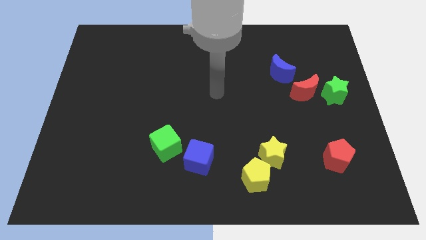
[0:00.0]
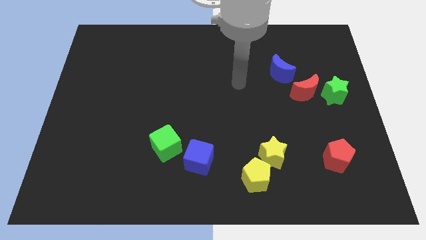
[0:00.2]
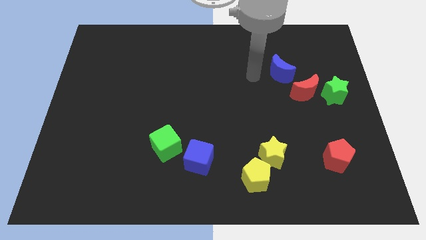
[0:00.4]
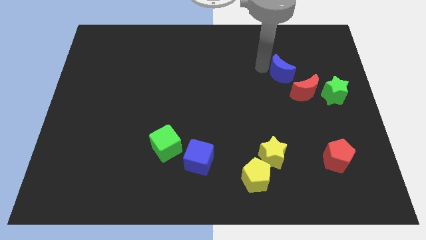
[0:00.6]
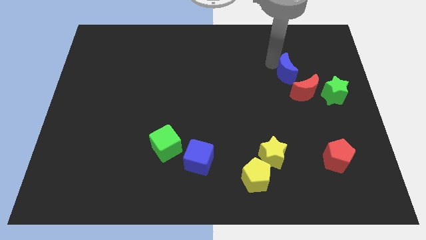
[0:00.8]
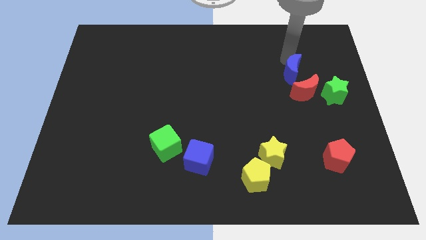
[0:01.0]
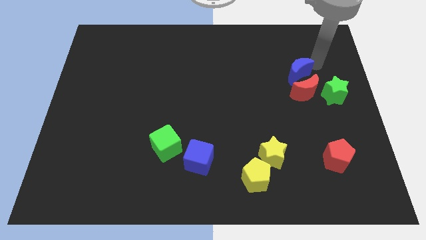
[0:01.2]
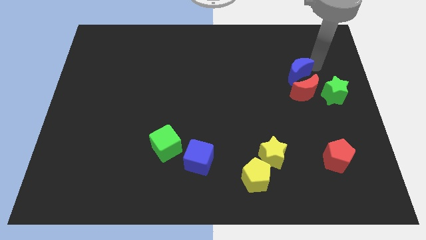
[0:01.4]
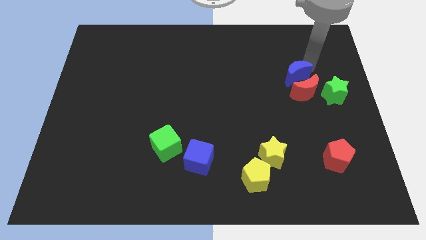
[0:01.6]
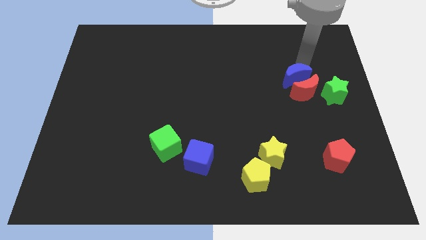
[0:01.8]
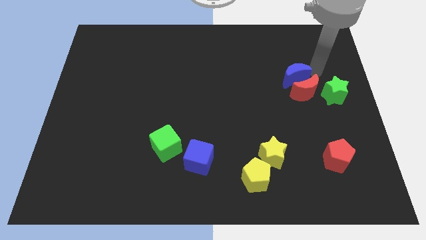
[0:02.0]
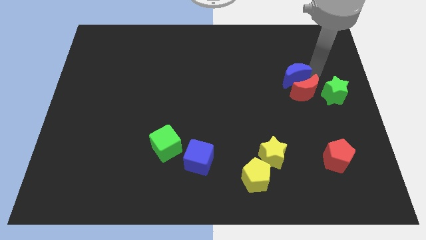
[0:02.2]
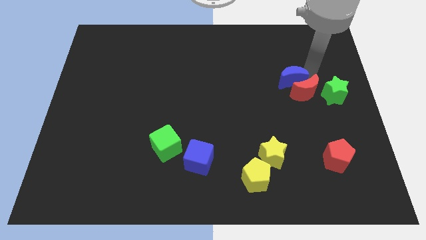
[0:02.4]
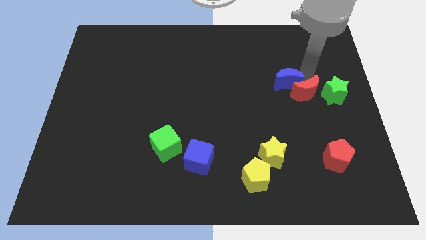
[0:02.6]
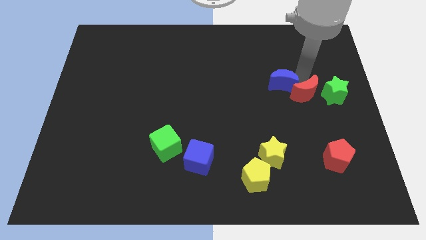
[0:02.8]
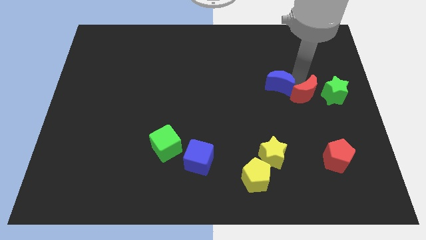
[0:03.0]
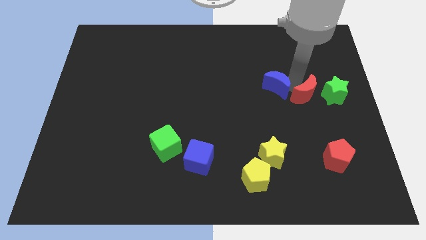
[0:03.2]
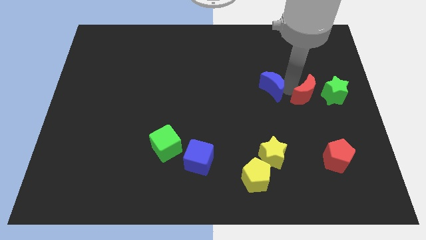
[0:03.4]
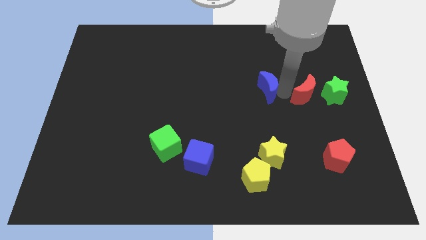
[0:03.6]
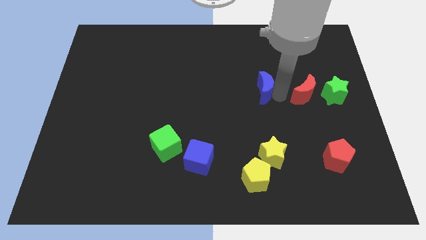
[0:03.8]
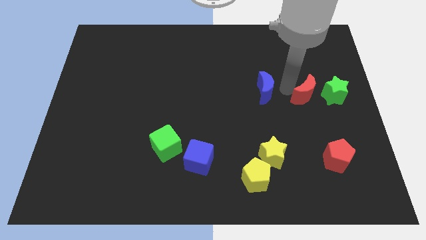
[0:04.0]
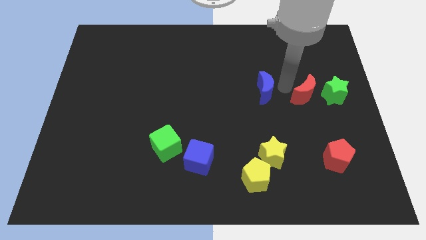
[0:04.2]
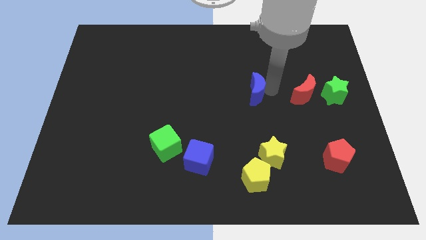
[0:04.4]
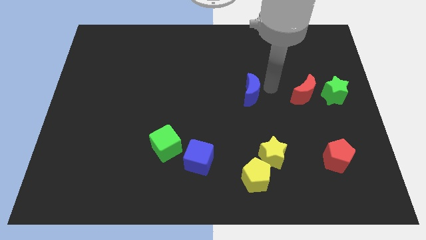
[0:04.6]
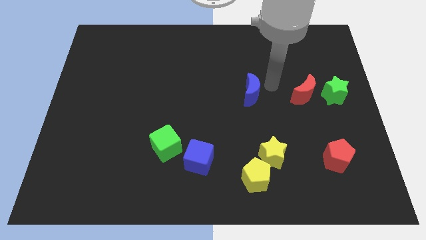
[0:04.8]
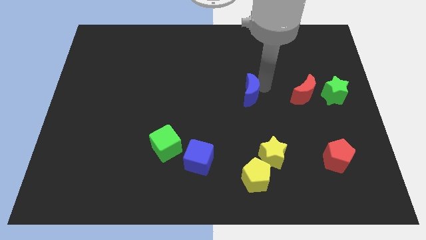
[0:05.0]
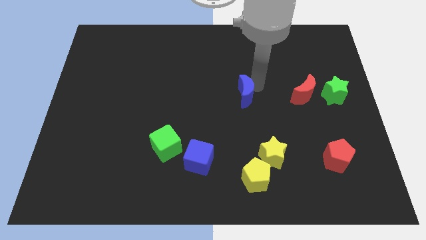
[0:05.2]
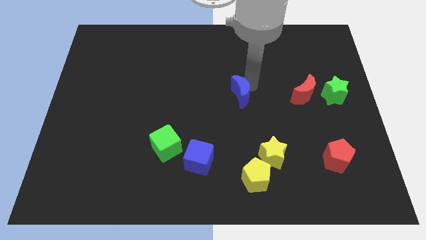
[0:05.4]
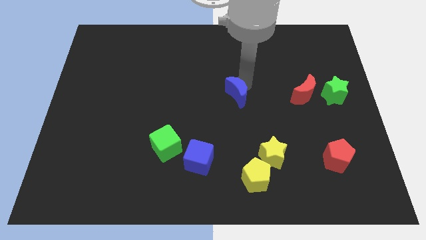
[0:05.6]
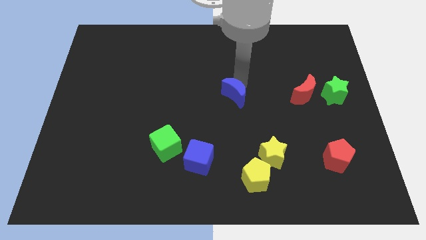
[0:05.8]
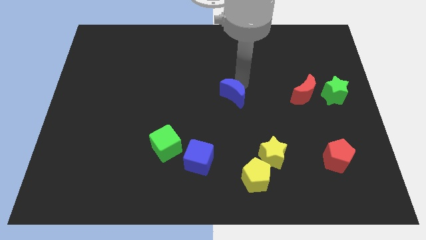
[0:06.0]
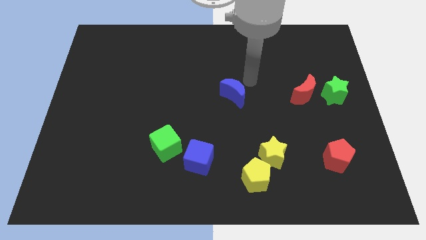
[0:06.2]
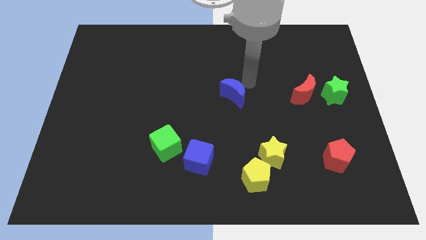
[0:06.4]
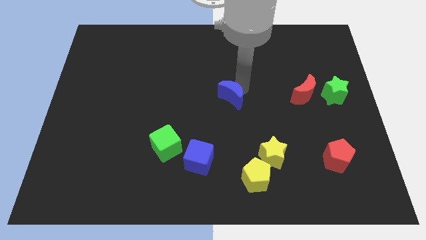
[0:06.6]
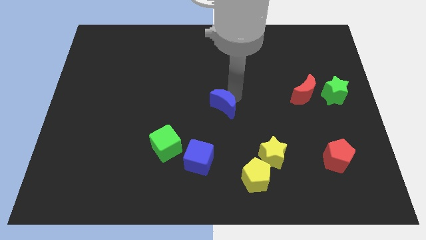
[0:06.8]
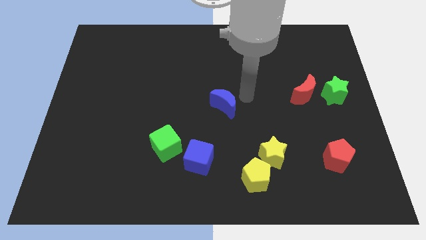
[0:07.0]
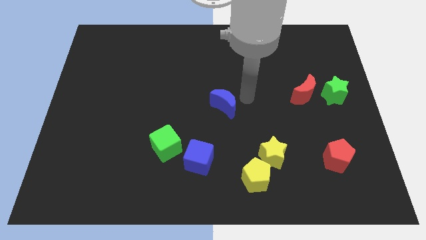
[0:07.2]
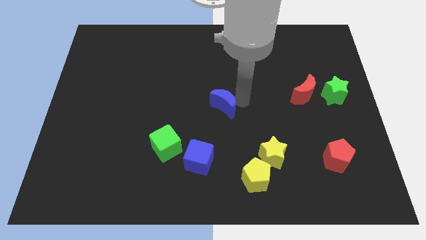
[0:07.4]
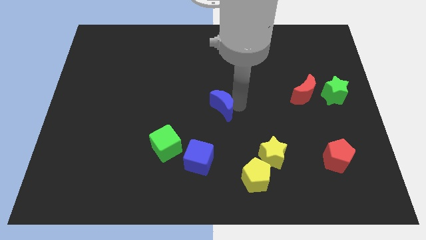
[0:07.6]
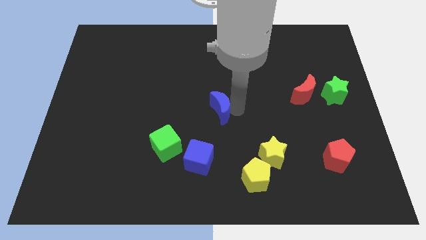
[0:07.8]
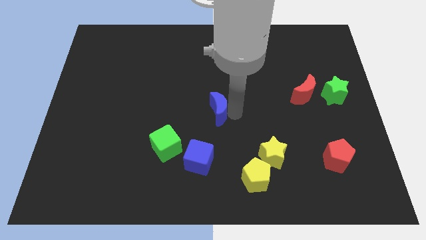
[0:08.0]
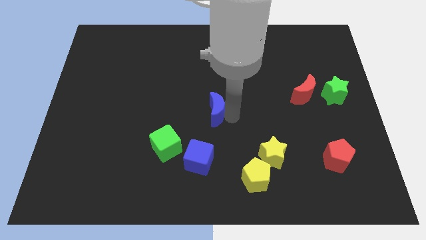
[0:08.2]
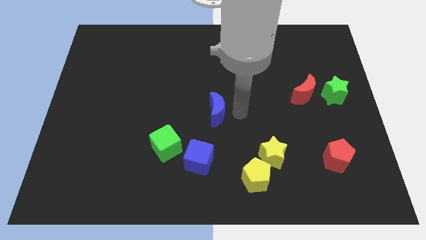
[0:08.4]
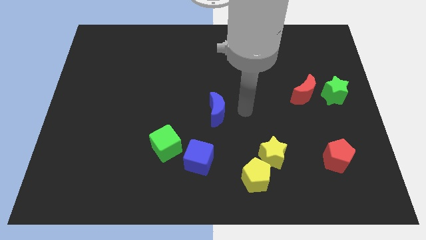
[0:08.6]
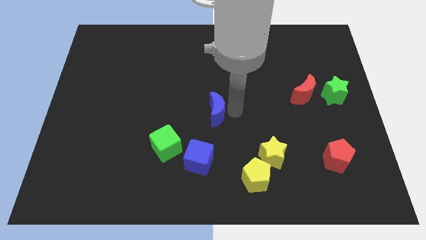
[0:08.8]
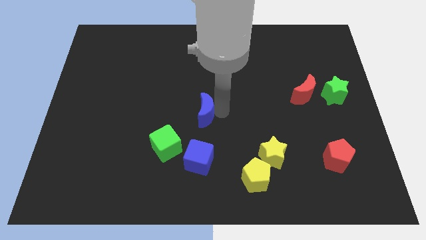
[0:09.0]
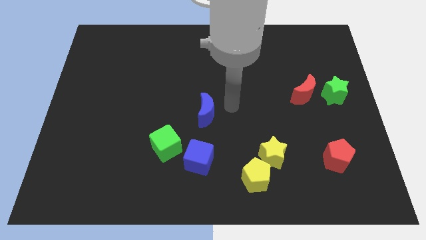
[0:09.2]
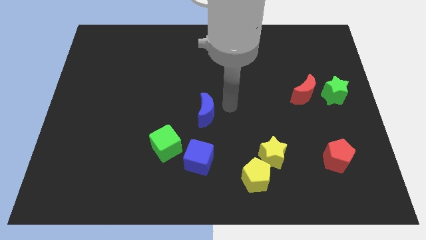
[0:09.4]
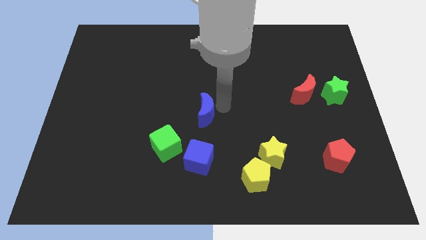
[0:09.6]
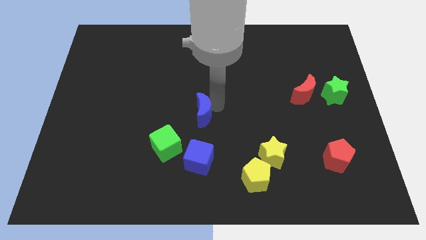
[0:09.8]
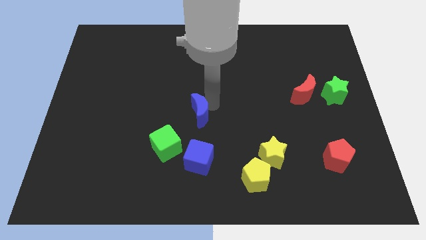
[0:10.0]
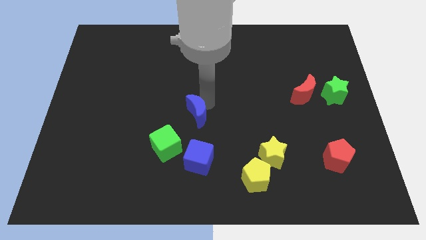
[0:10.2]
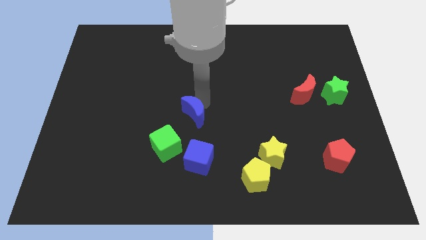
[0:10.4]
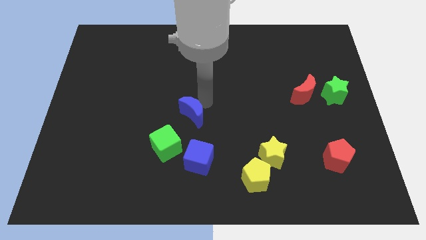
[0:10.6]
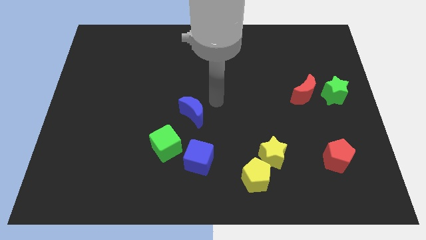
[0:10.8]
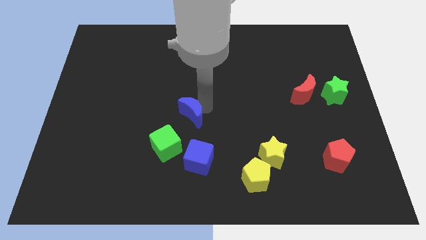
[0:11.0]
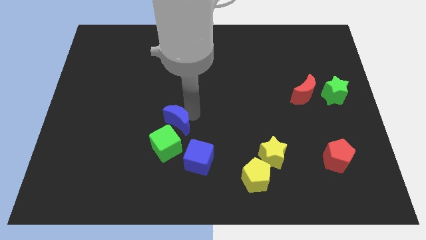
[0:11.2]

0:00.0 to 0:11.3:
push the blue moon to the top left side of the blue cube

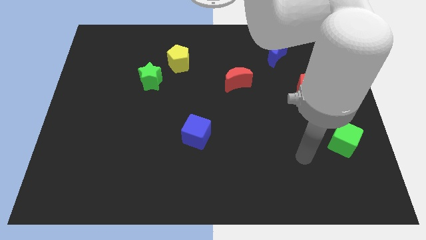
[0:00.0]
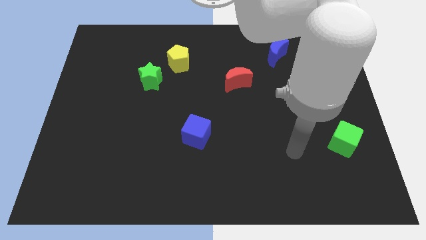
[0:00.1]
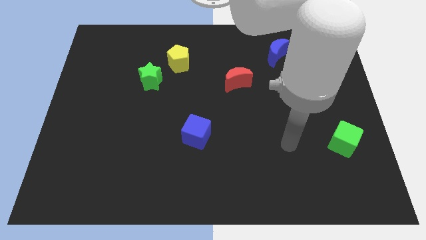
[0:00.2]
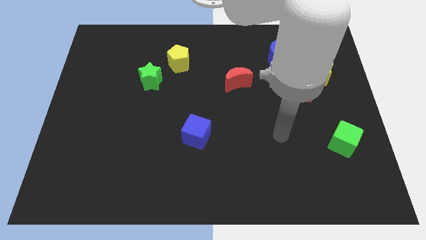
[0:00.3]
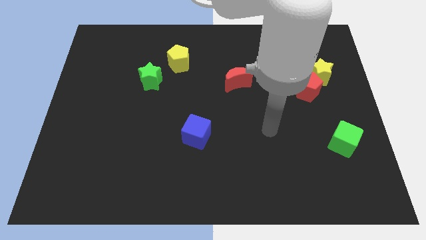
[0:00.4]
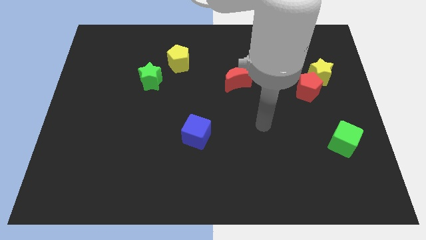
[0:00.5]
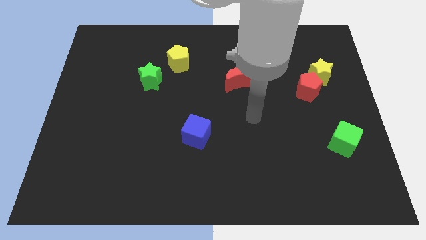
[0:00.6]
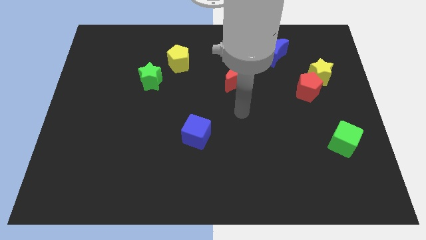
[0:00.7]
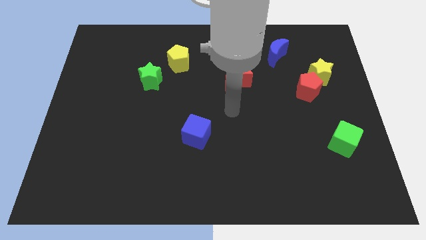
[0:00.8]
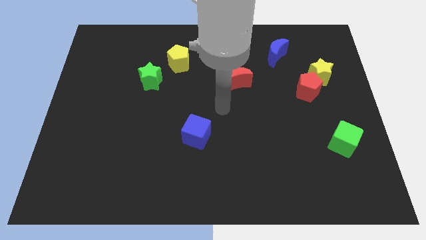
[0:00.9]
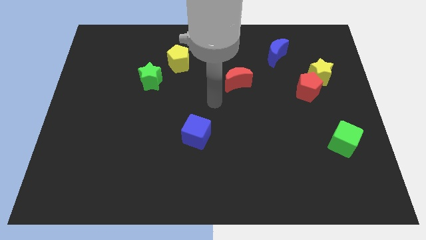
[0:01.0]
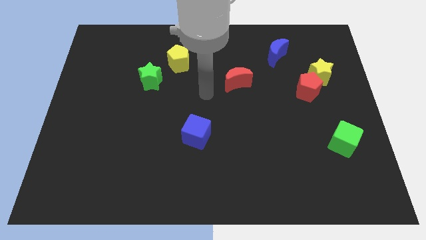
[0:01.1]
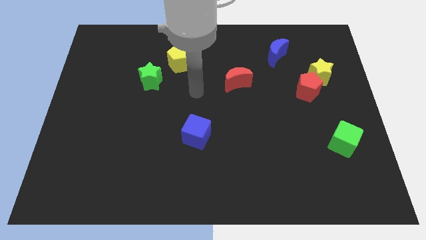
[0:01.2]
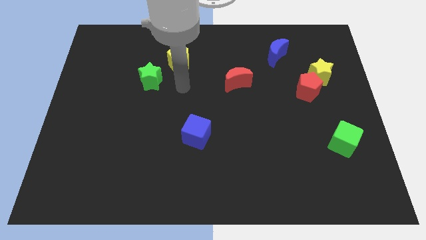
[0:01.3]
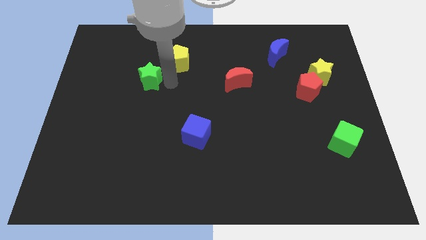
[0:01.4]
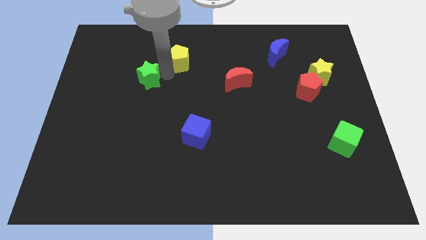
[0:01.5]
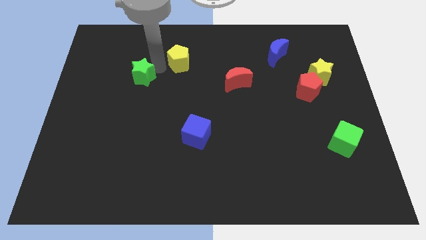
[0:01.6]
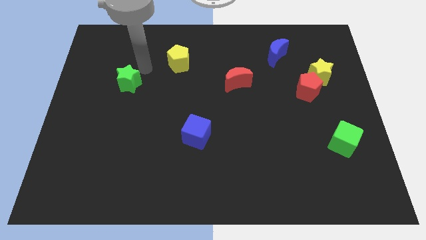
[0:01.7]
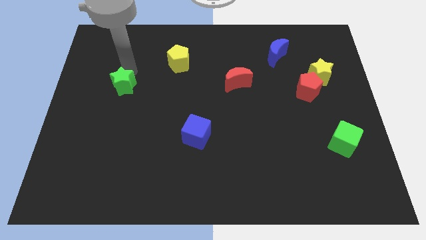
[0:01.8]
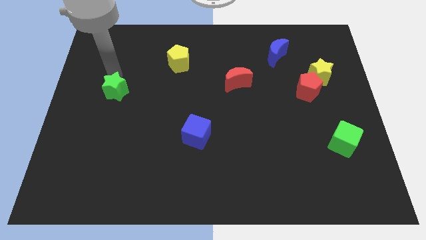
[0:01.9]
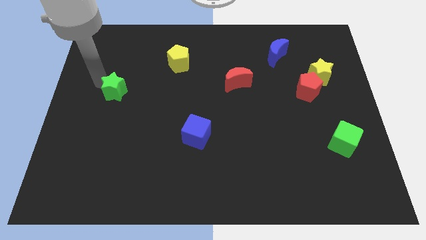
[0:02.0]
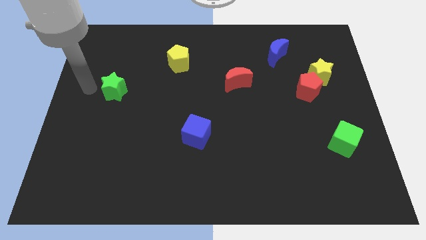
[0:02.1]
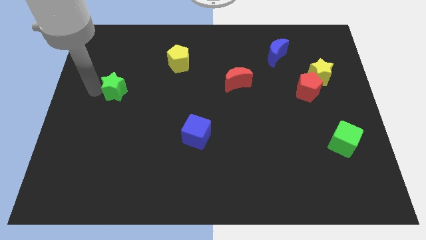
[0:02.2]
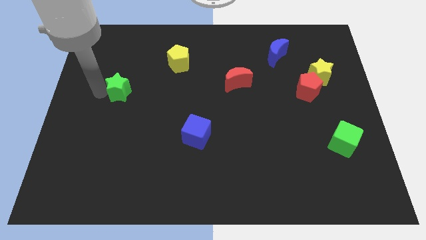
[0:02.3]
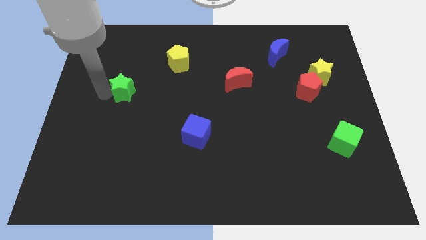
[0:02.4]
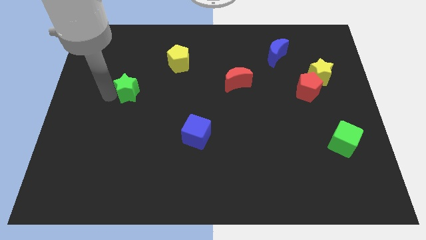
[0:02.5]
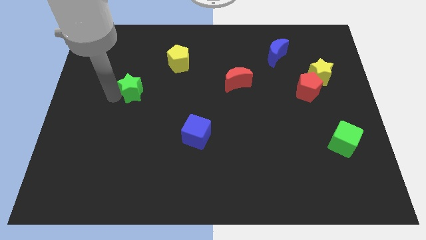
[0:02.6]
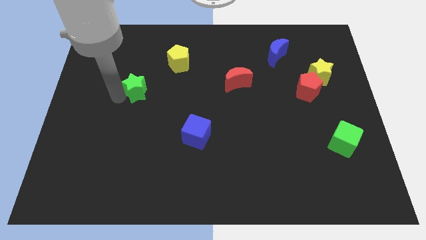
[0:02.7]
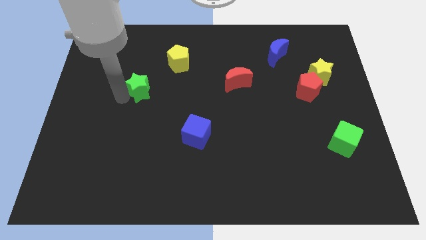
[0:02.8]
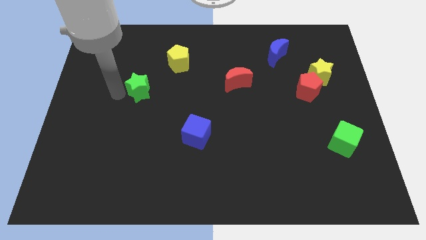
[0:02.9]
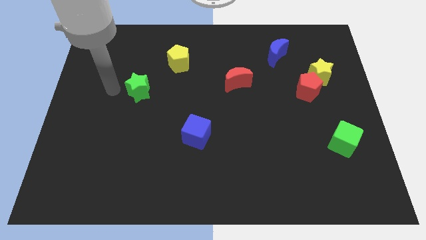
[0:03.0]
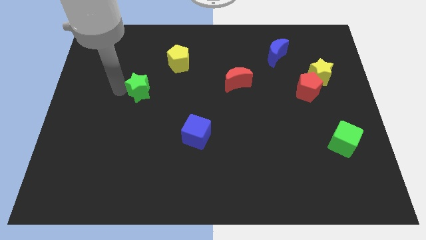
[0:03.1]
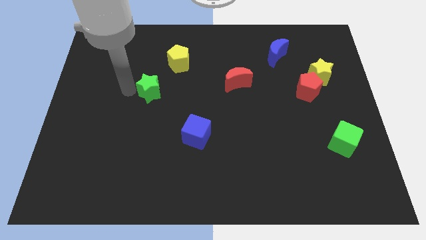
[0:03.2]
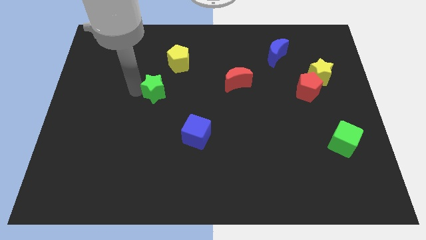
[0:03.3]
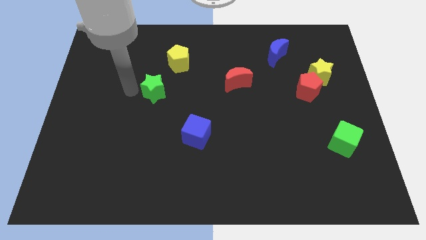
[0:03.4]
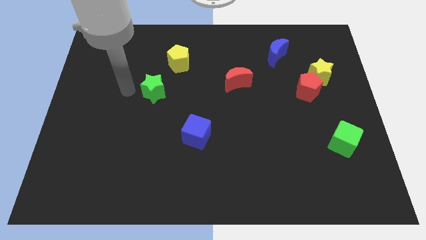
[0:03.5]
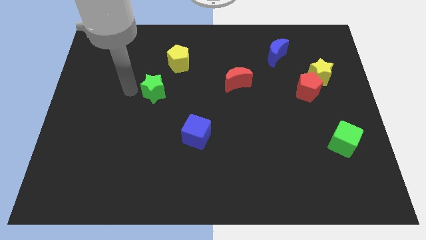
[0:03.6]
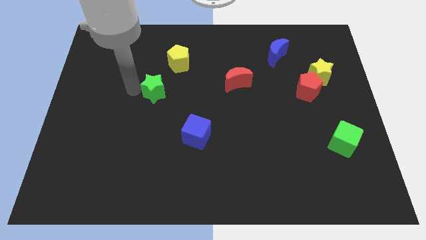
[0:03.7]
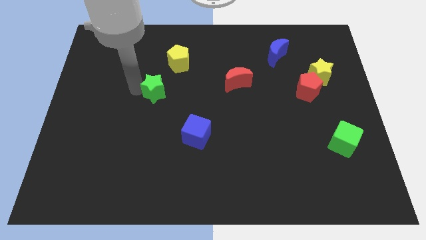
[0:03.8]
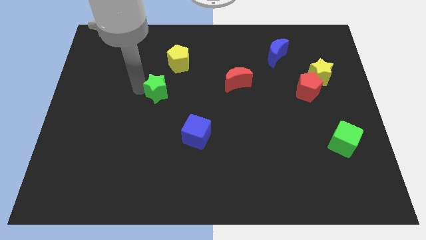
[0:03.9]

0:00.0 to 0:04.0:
move the green star below the yellow pentagon
